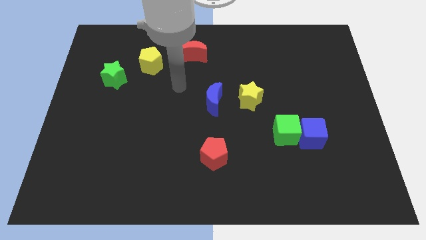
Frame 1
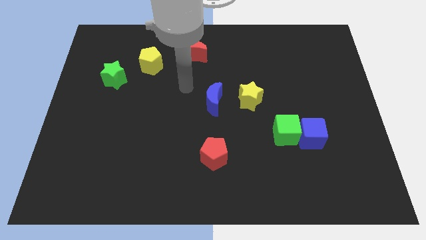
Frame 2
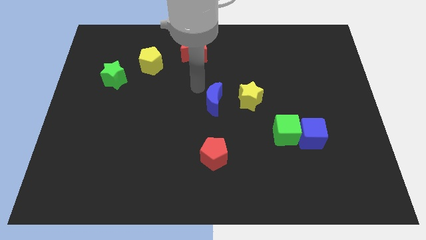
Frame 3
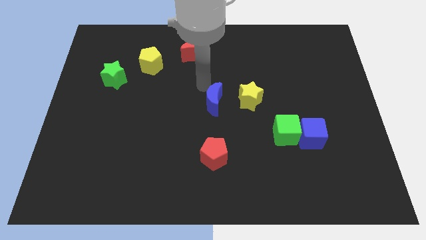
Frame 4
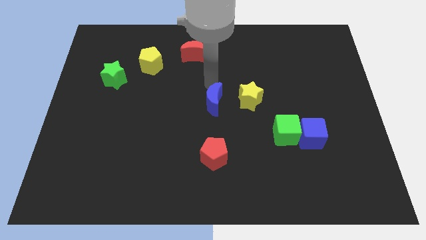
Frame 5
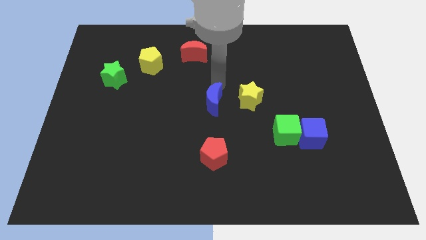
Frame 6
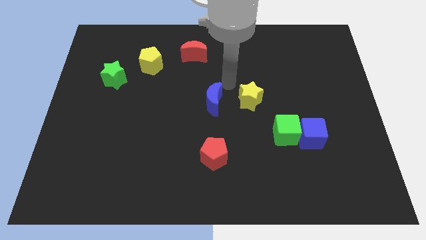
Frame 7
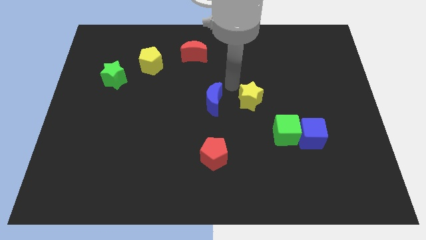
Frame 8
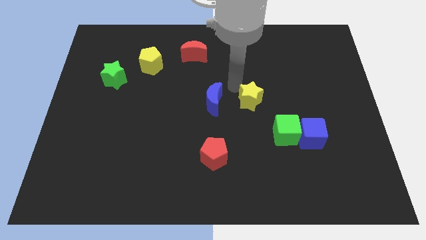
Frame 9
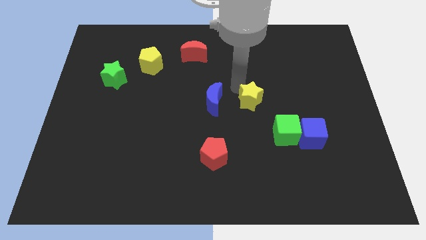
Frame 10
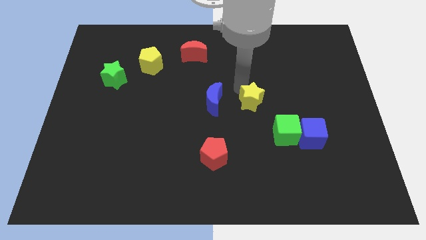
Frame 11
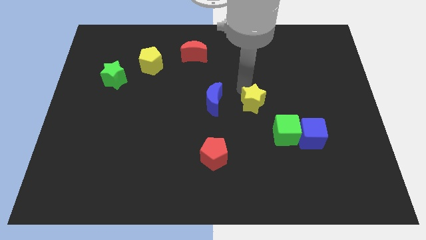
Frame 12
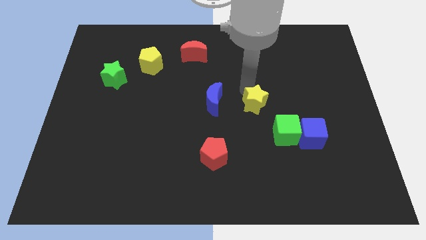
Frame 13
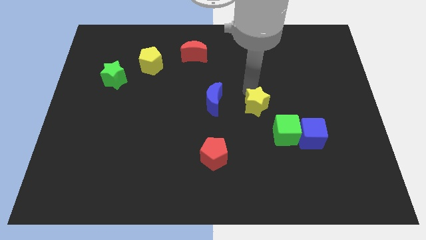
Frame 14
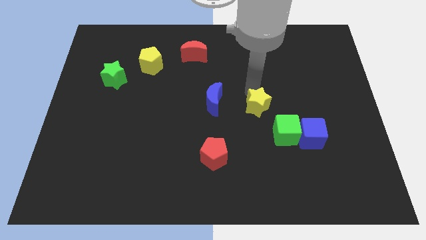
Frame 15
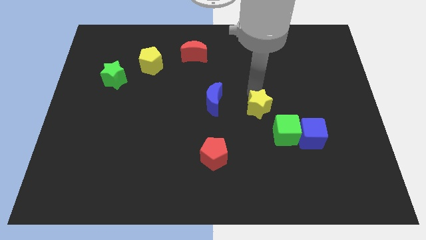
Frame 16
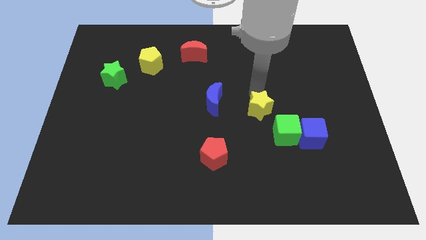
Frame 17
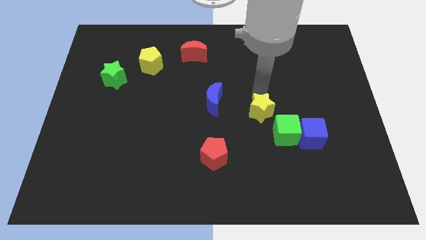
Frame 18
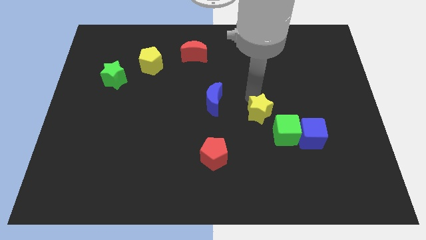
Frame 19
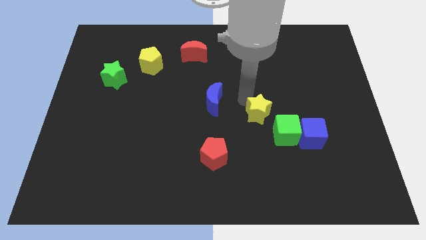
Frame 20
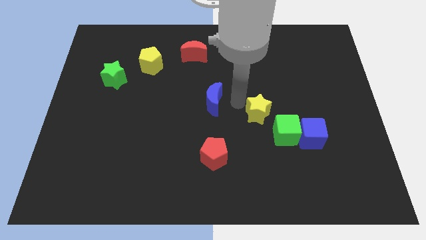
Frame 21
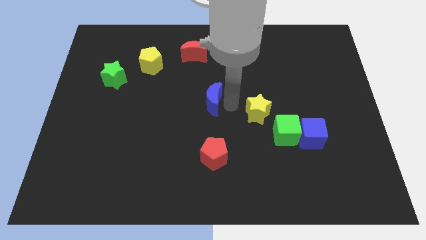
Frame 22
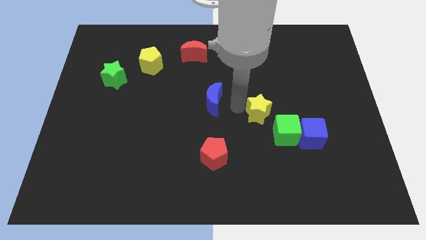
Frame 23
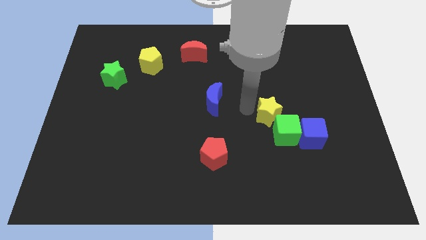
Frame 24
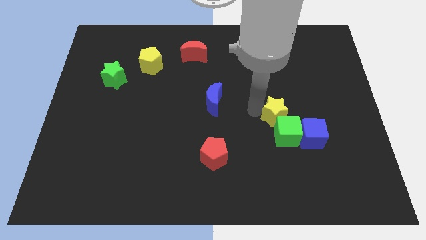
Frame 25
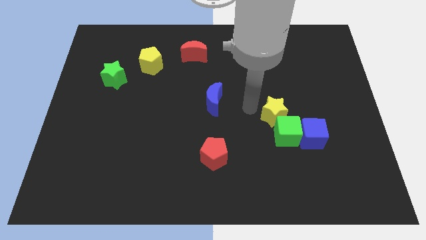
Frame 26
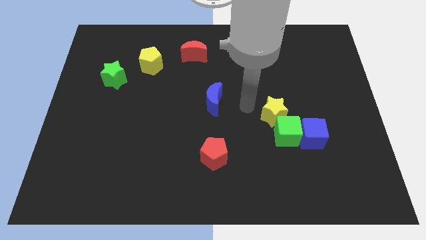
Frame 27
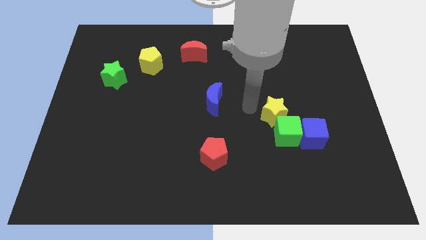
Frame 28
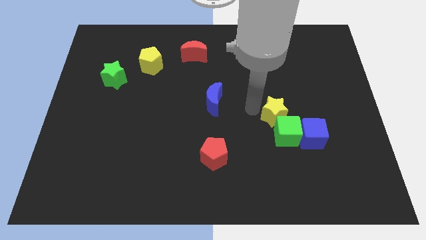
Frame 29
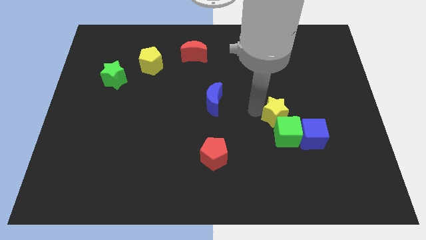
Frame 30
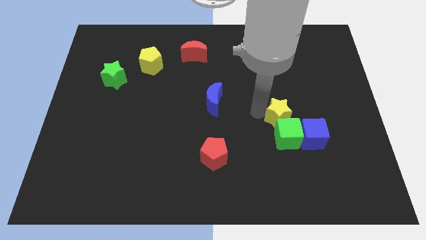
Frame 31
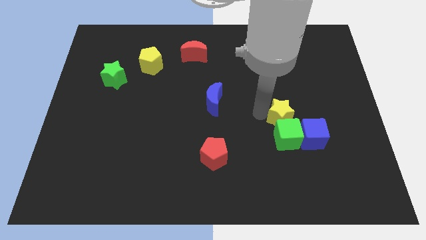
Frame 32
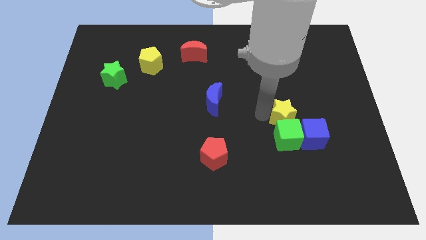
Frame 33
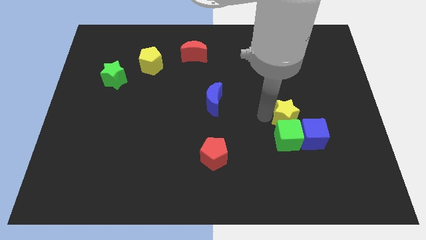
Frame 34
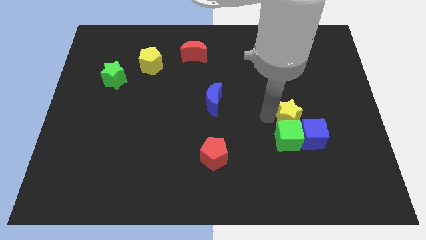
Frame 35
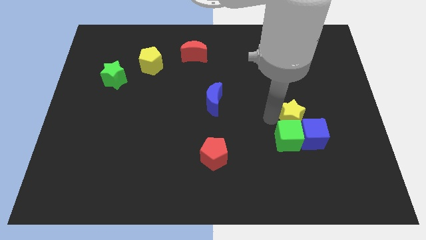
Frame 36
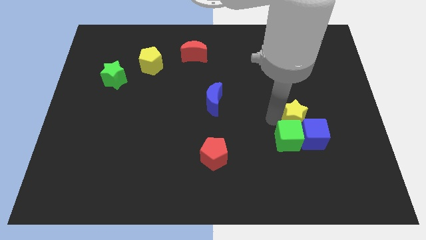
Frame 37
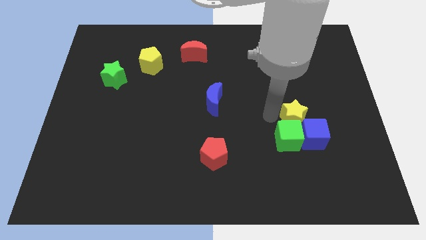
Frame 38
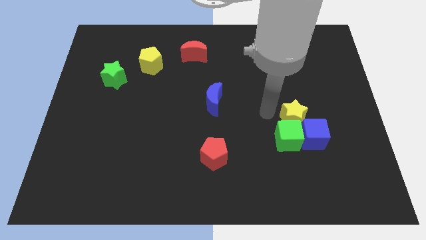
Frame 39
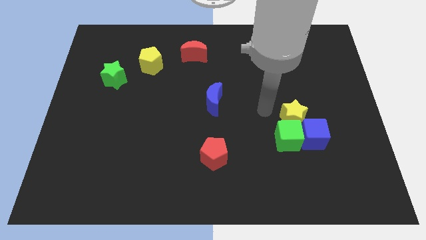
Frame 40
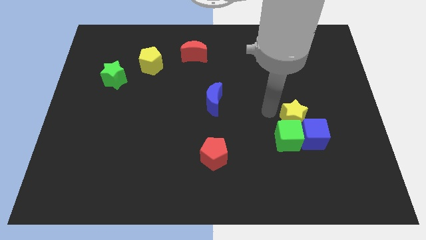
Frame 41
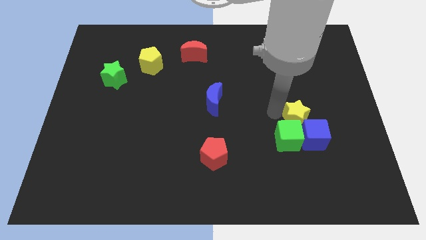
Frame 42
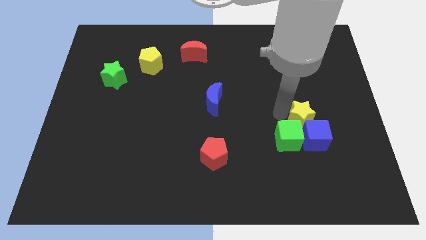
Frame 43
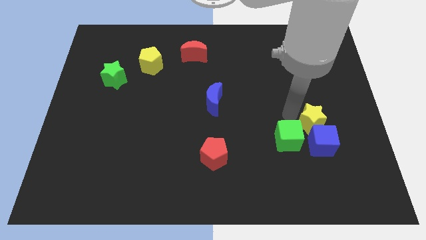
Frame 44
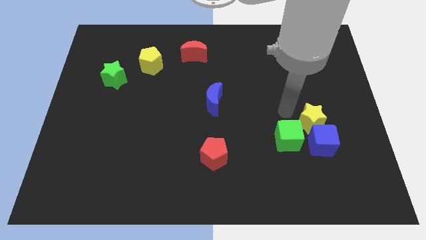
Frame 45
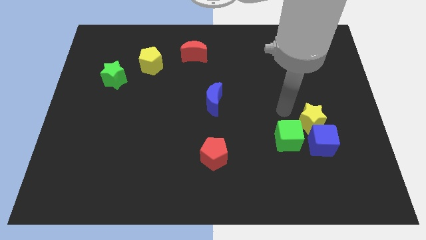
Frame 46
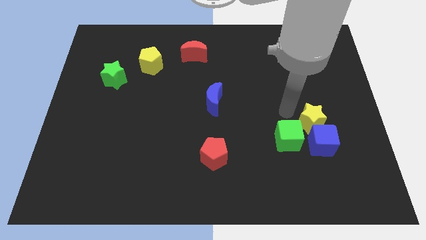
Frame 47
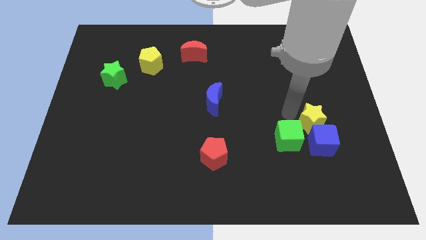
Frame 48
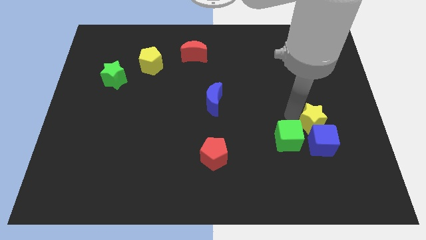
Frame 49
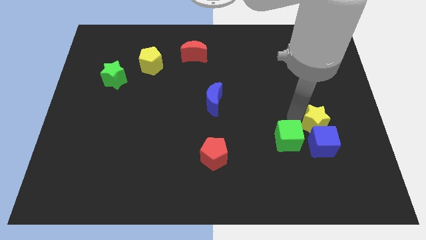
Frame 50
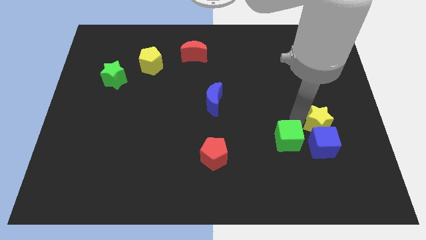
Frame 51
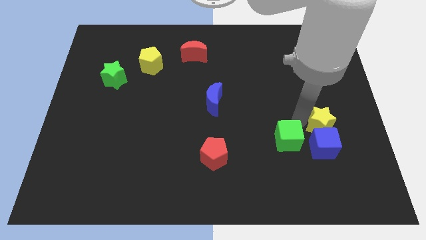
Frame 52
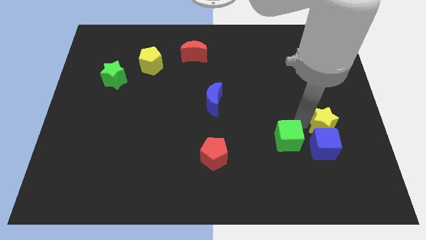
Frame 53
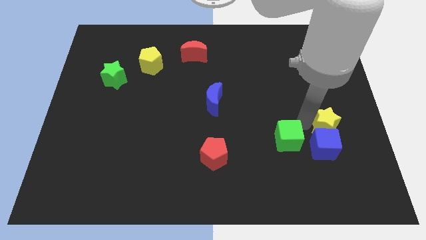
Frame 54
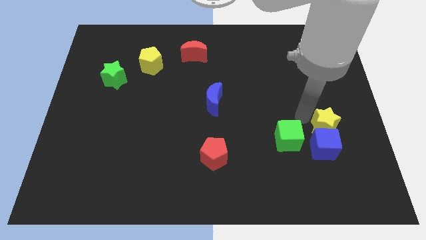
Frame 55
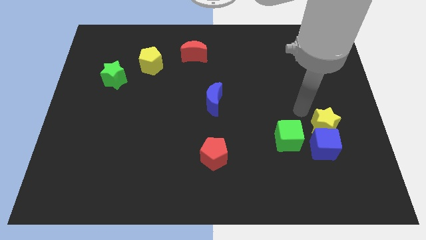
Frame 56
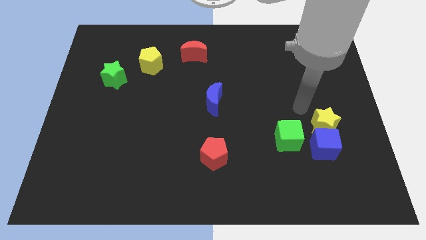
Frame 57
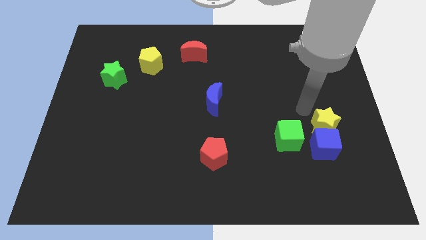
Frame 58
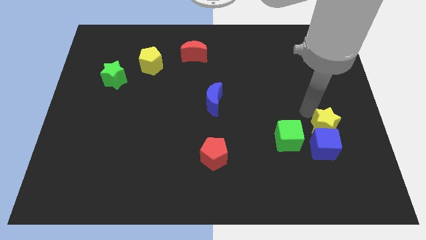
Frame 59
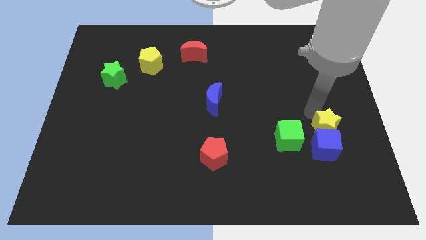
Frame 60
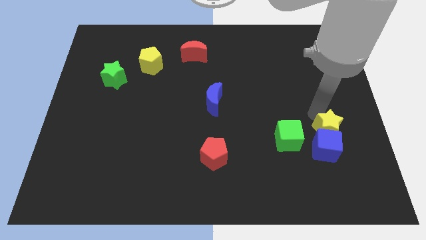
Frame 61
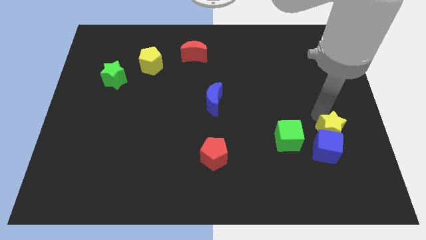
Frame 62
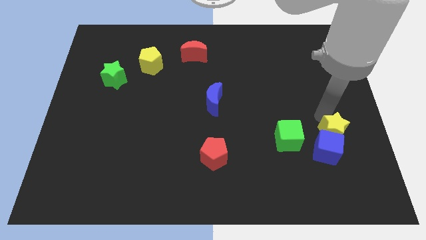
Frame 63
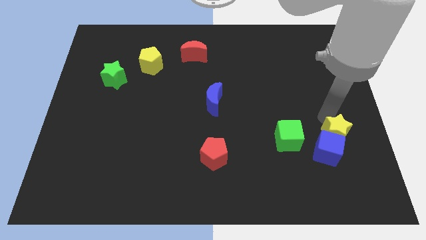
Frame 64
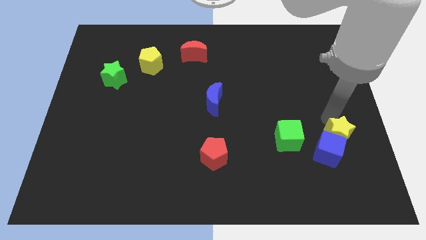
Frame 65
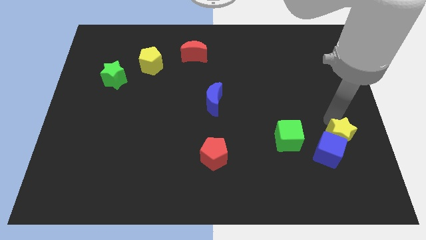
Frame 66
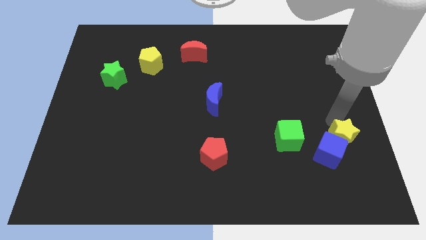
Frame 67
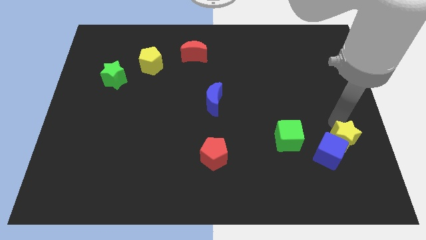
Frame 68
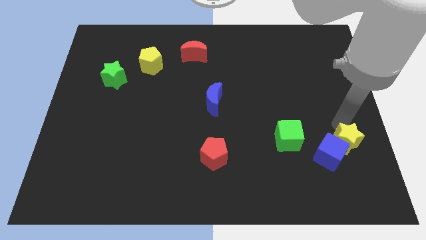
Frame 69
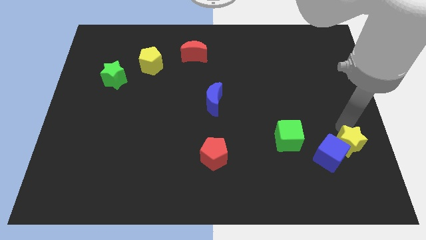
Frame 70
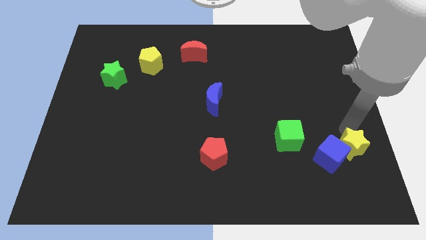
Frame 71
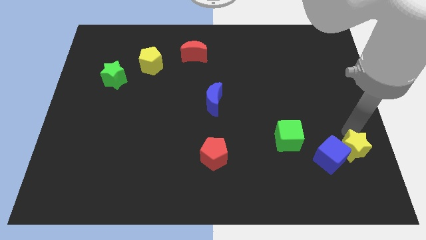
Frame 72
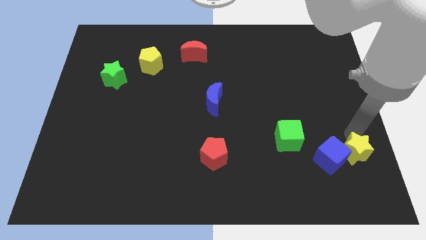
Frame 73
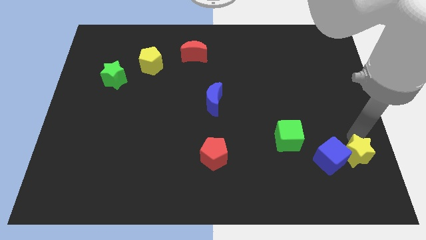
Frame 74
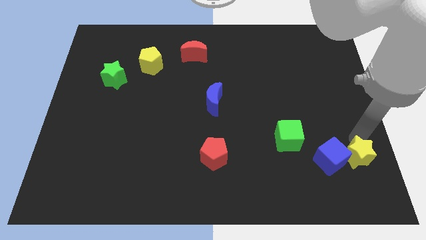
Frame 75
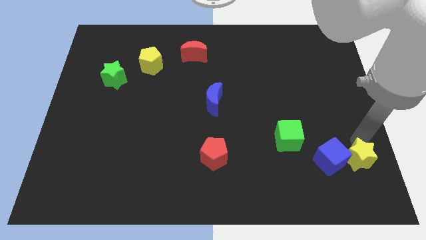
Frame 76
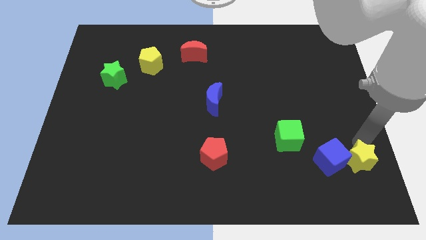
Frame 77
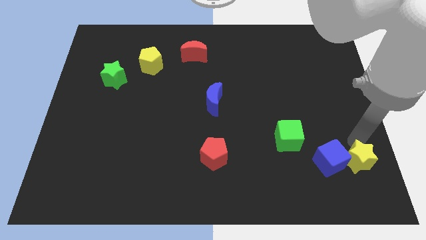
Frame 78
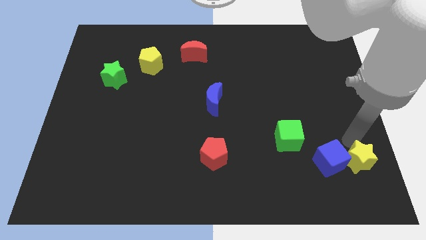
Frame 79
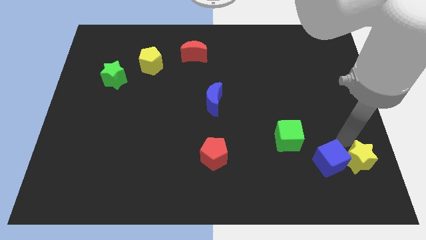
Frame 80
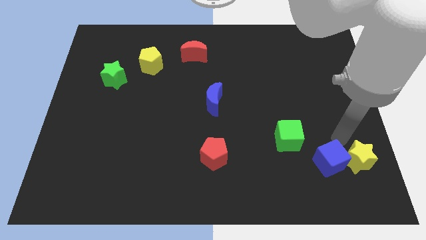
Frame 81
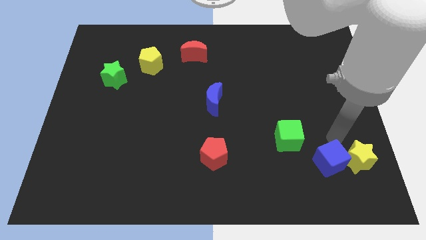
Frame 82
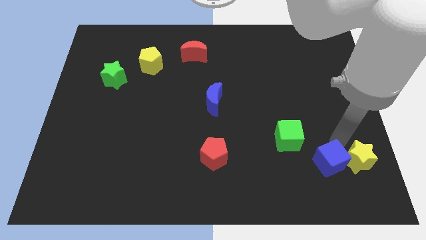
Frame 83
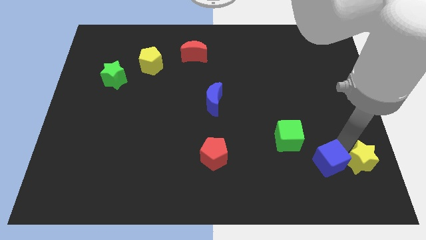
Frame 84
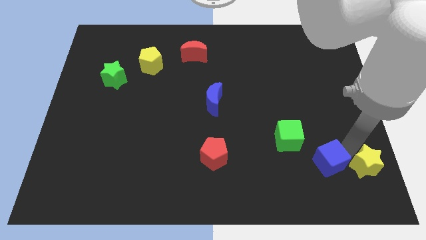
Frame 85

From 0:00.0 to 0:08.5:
push the yellow star to the lower right corner
